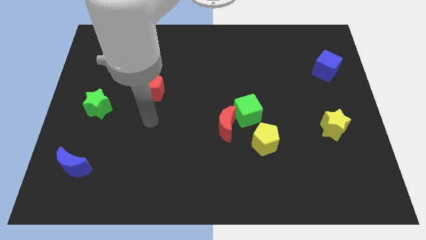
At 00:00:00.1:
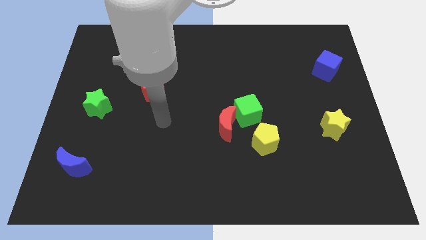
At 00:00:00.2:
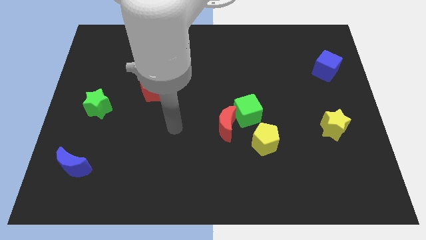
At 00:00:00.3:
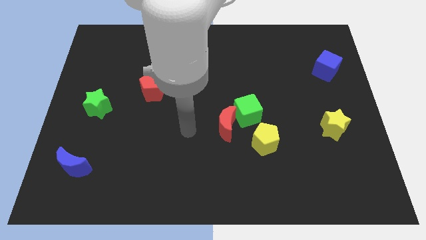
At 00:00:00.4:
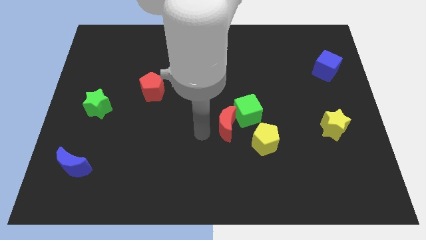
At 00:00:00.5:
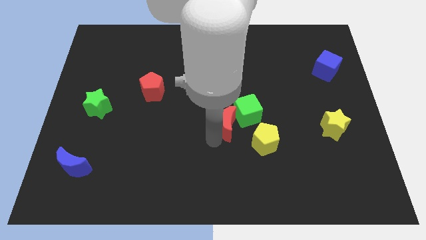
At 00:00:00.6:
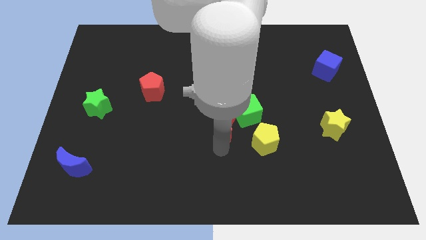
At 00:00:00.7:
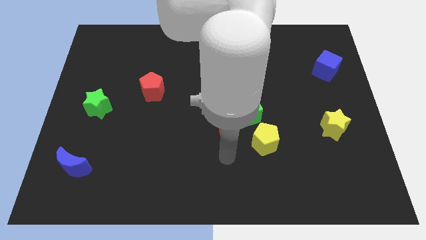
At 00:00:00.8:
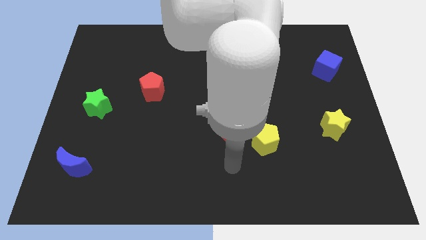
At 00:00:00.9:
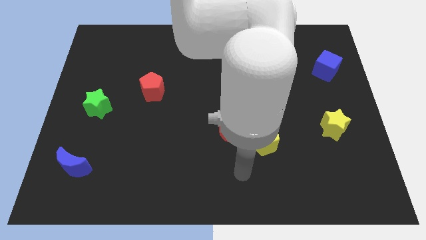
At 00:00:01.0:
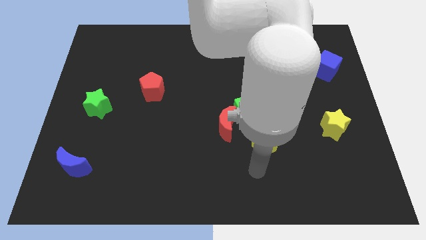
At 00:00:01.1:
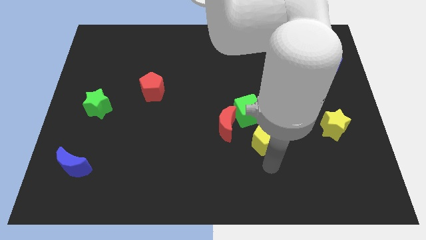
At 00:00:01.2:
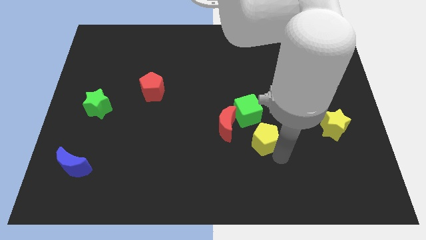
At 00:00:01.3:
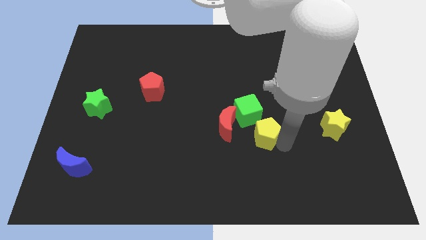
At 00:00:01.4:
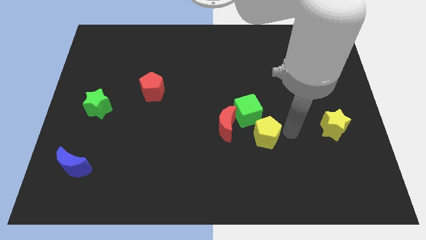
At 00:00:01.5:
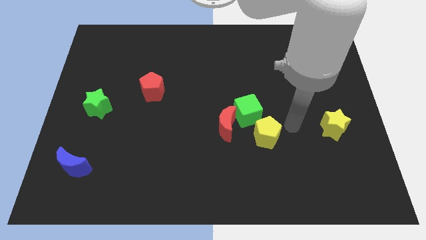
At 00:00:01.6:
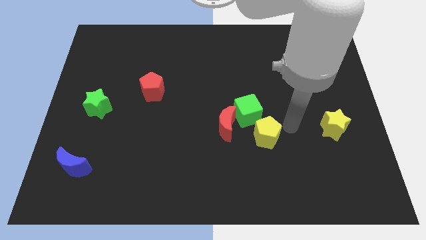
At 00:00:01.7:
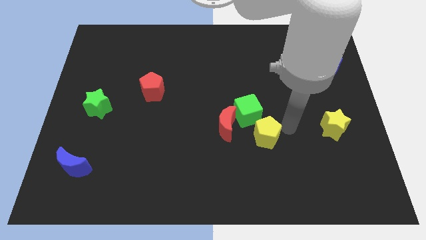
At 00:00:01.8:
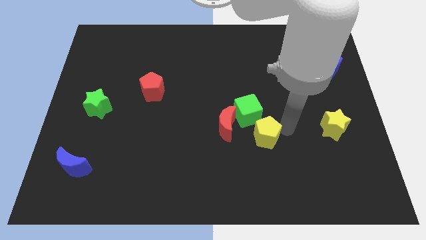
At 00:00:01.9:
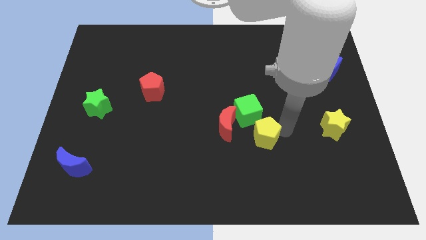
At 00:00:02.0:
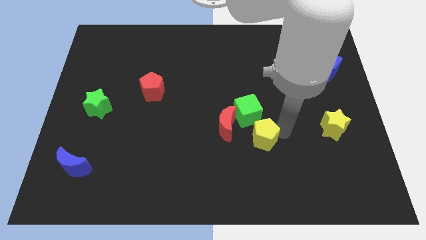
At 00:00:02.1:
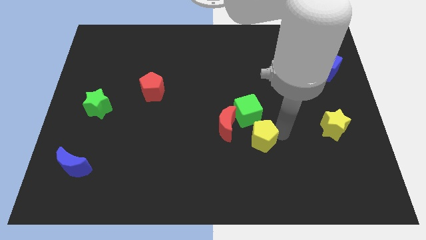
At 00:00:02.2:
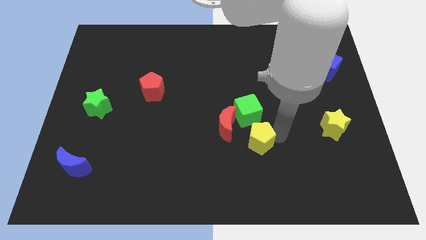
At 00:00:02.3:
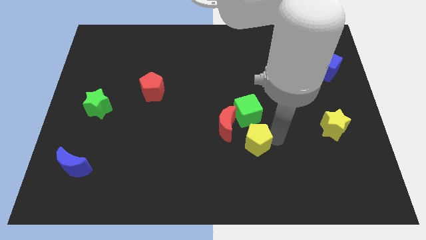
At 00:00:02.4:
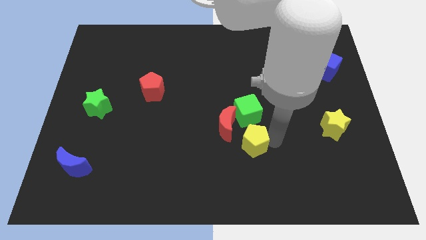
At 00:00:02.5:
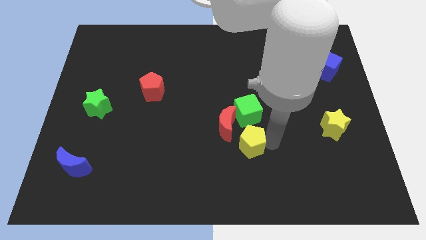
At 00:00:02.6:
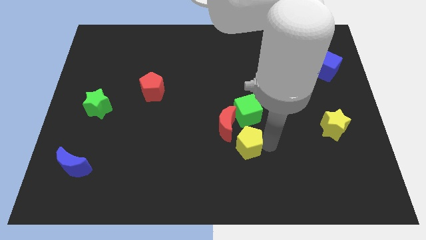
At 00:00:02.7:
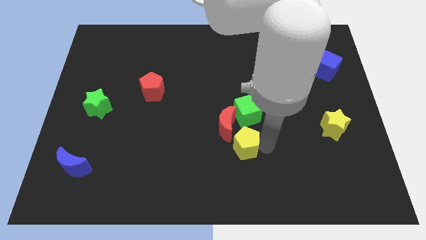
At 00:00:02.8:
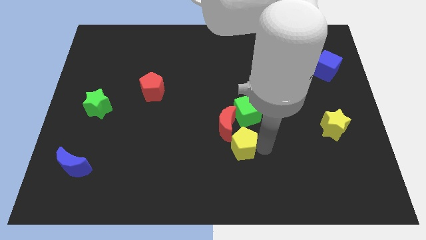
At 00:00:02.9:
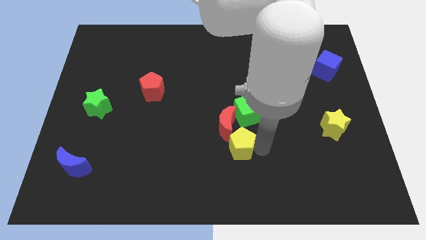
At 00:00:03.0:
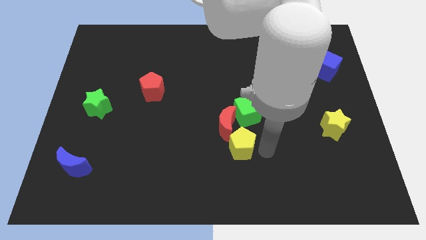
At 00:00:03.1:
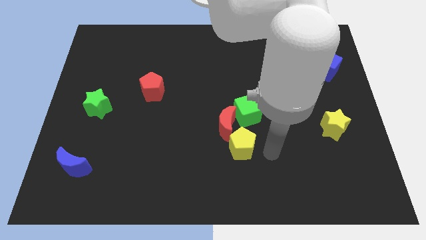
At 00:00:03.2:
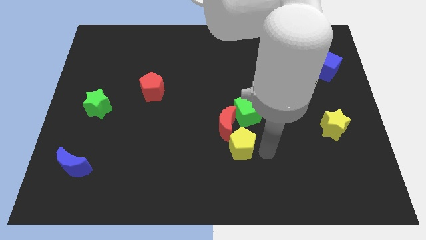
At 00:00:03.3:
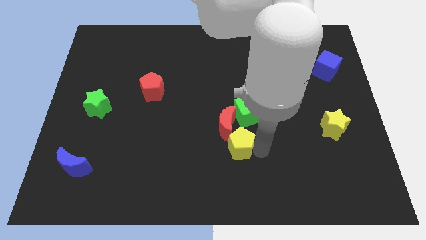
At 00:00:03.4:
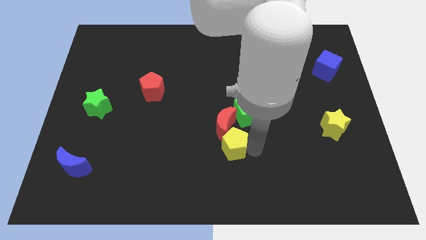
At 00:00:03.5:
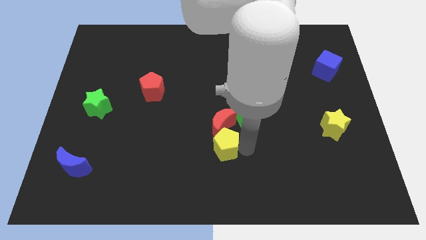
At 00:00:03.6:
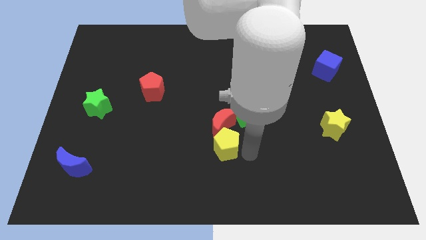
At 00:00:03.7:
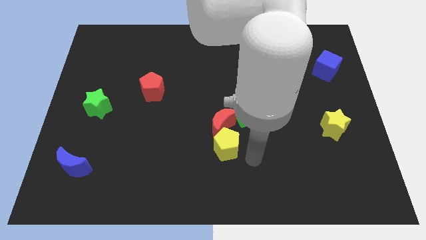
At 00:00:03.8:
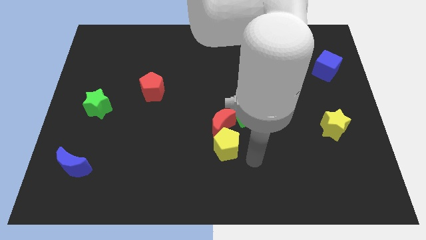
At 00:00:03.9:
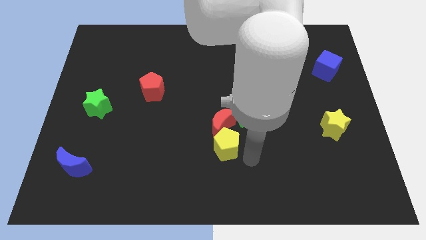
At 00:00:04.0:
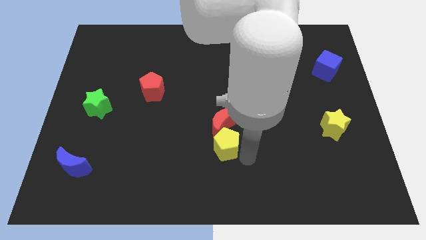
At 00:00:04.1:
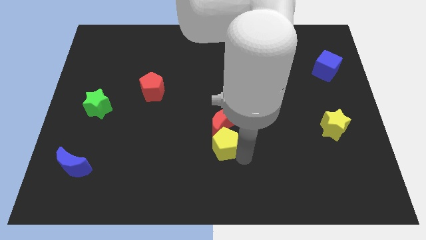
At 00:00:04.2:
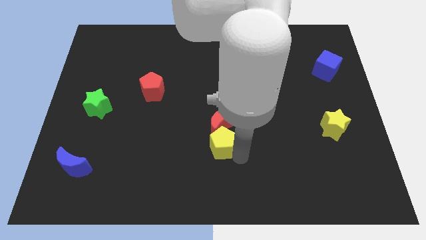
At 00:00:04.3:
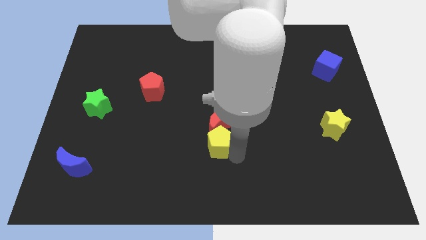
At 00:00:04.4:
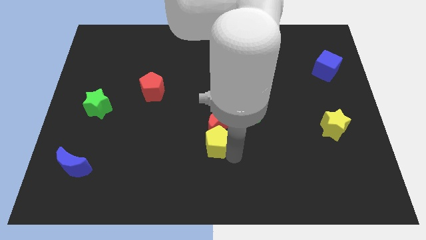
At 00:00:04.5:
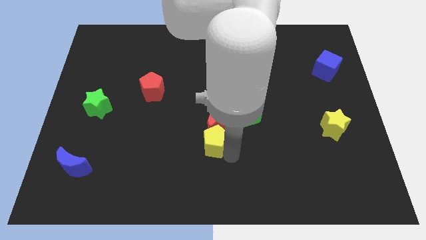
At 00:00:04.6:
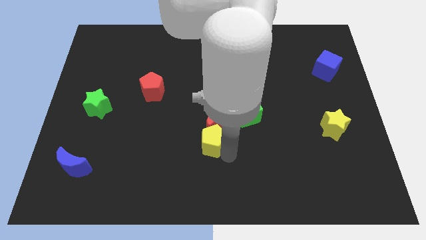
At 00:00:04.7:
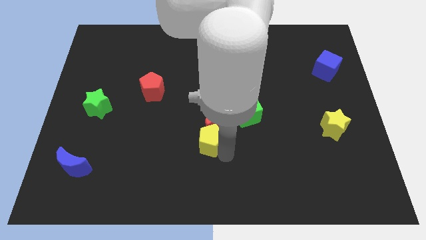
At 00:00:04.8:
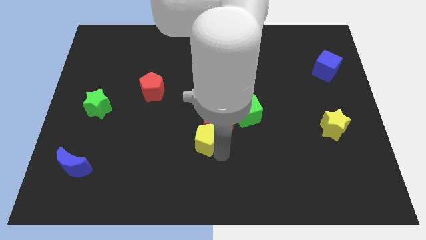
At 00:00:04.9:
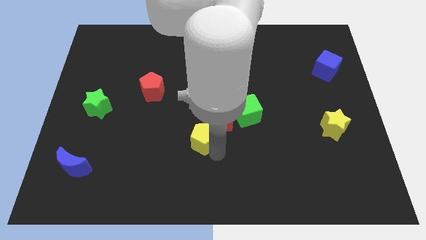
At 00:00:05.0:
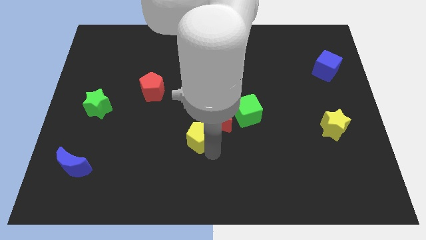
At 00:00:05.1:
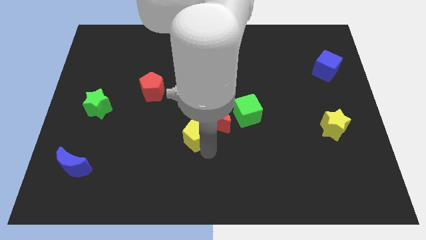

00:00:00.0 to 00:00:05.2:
slightly slide the yellow pentagon up and left diagonally

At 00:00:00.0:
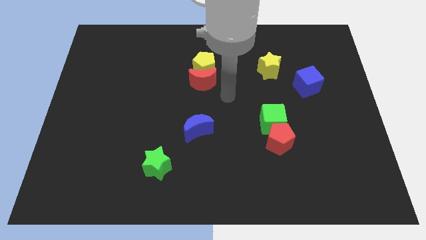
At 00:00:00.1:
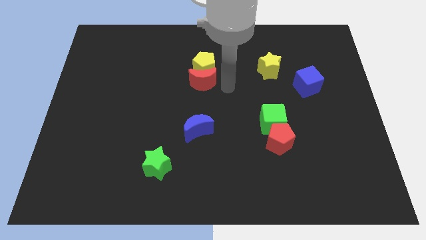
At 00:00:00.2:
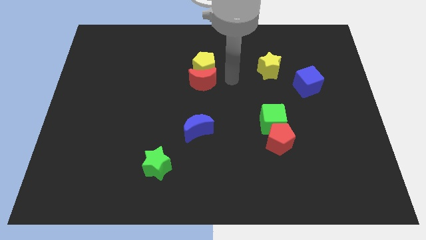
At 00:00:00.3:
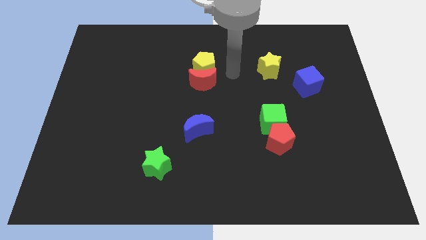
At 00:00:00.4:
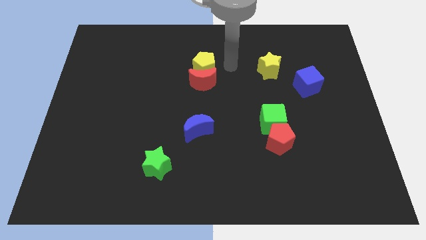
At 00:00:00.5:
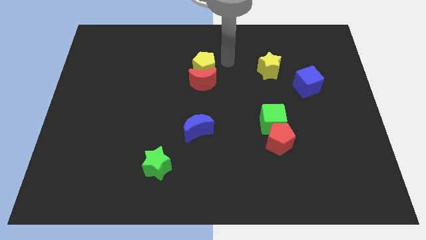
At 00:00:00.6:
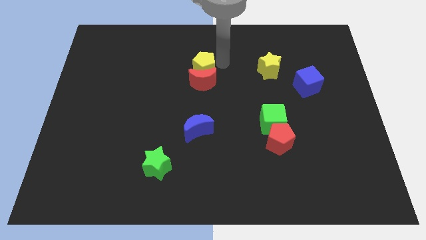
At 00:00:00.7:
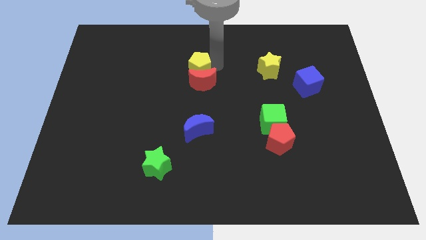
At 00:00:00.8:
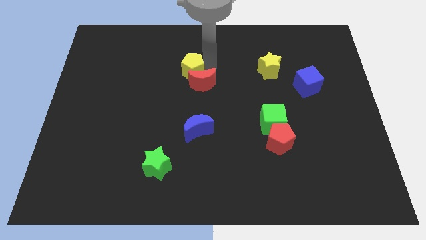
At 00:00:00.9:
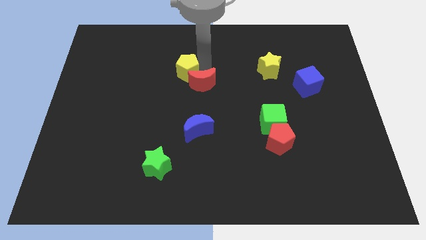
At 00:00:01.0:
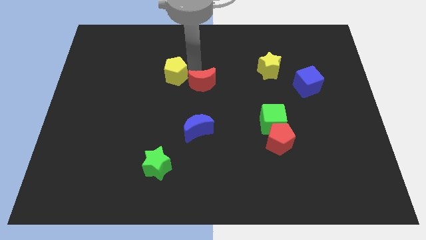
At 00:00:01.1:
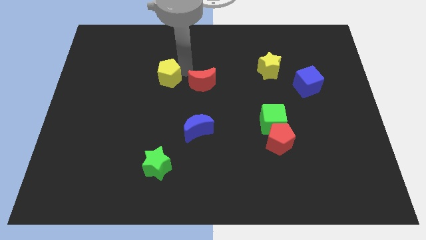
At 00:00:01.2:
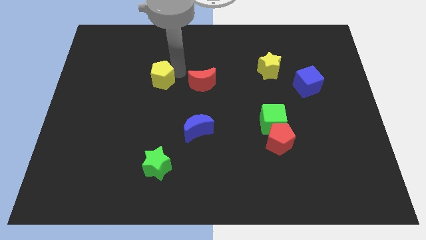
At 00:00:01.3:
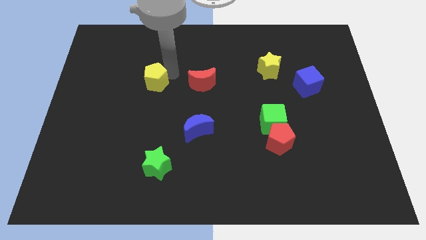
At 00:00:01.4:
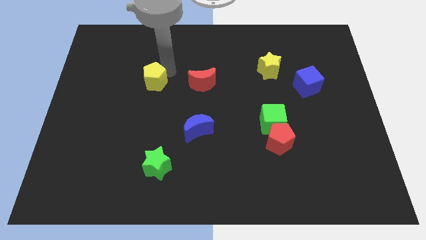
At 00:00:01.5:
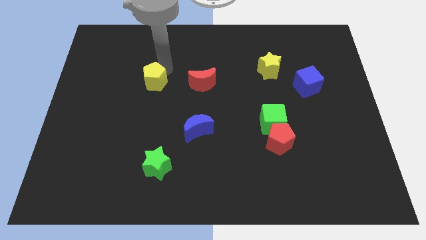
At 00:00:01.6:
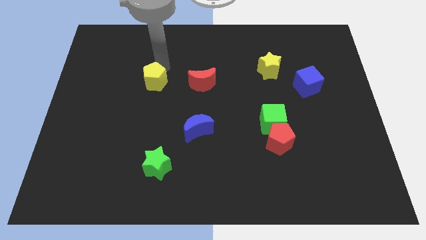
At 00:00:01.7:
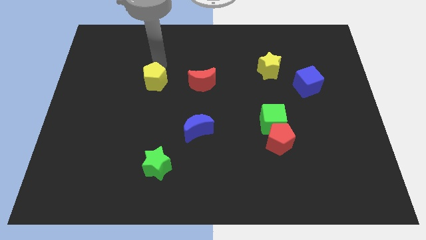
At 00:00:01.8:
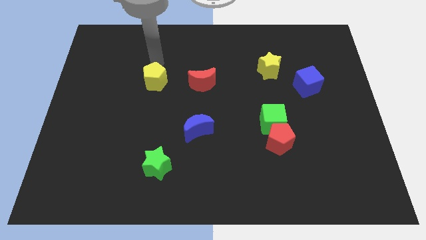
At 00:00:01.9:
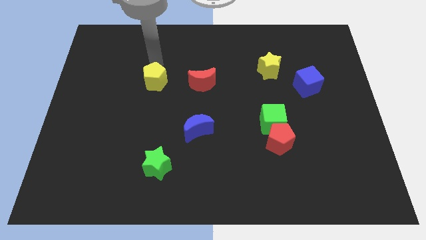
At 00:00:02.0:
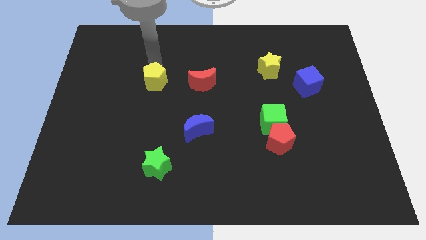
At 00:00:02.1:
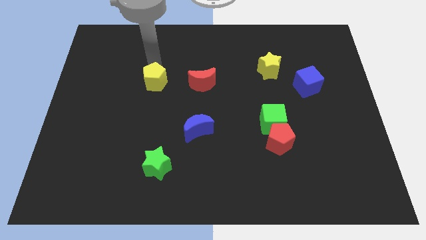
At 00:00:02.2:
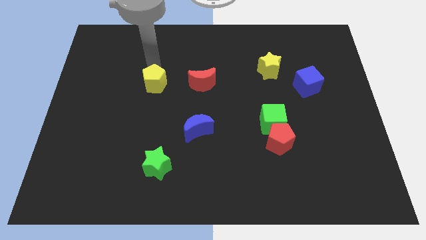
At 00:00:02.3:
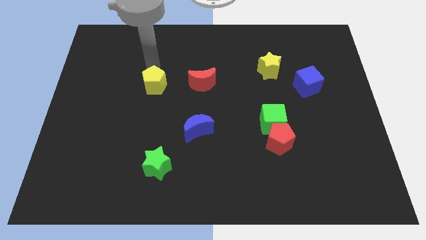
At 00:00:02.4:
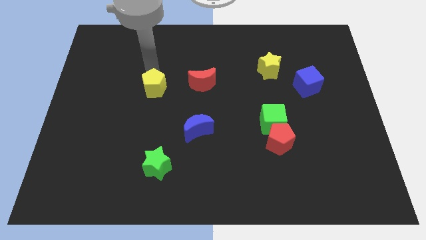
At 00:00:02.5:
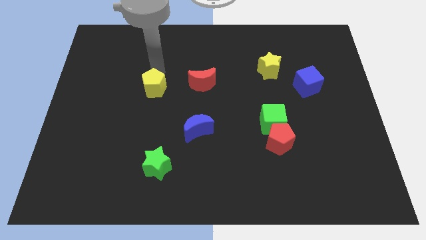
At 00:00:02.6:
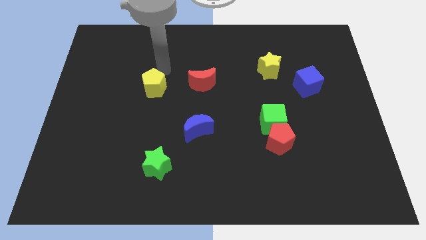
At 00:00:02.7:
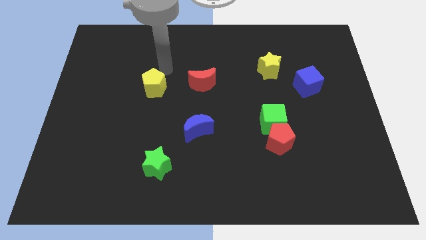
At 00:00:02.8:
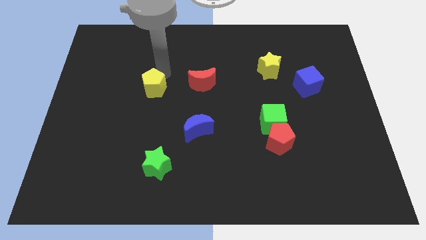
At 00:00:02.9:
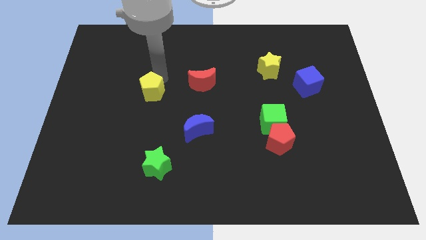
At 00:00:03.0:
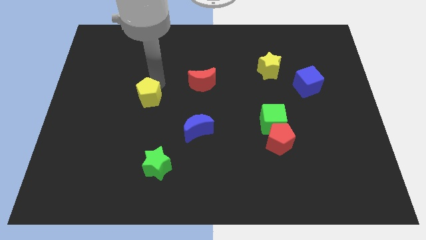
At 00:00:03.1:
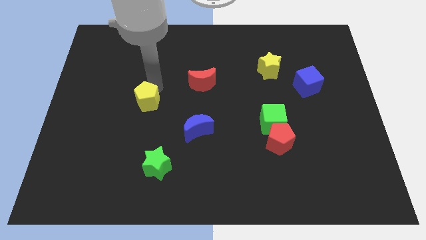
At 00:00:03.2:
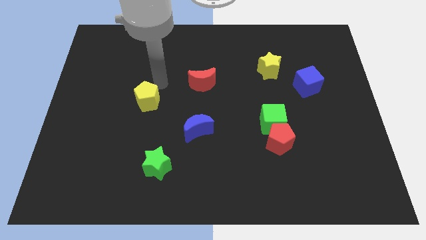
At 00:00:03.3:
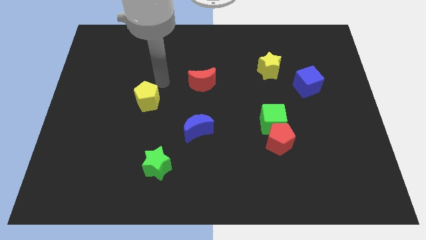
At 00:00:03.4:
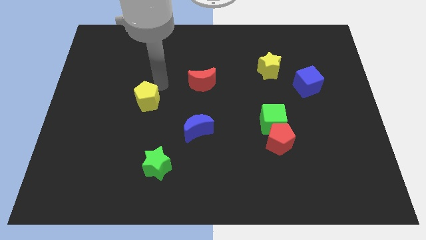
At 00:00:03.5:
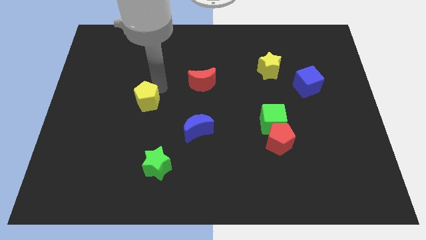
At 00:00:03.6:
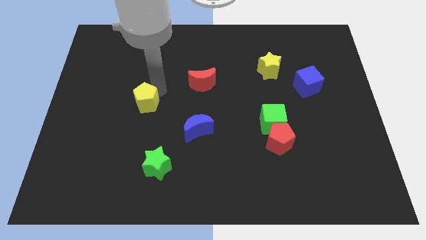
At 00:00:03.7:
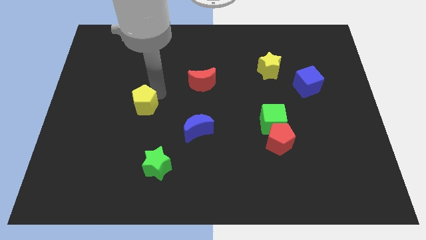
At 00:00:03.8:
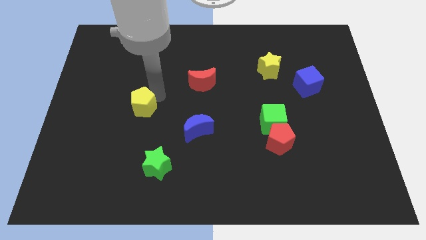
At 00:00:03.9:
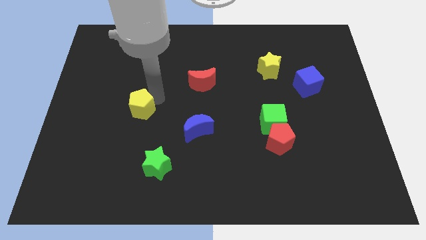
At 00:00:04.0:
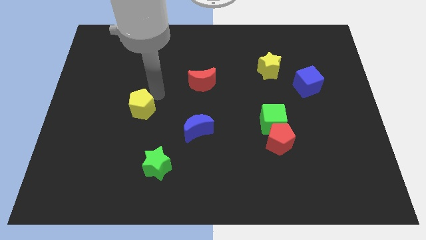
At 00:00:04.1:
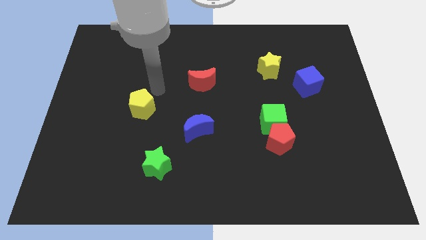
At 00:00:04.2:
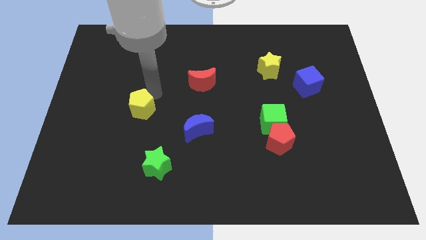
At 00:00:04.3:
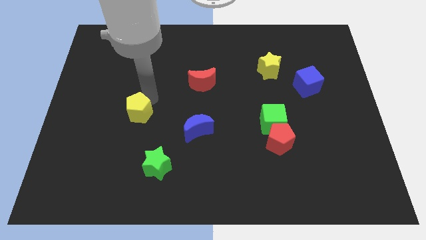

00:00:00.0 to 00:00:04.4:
slide the yellow pentagon down and left
